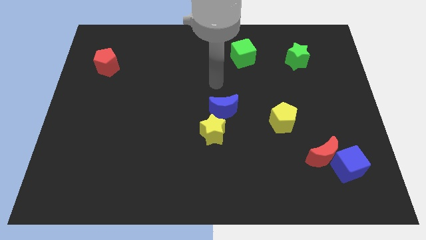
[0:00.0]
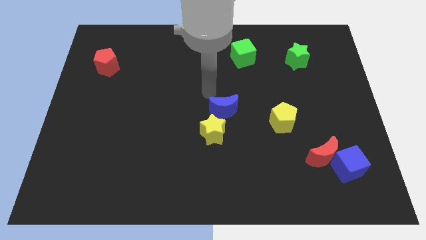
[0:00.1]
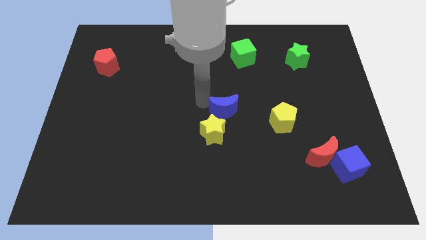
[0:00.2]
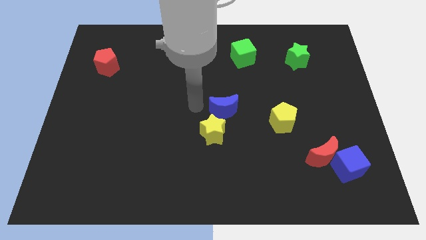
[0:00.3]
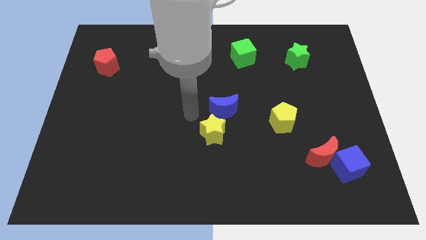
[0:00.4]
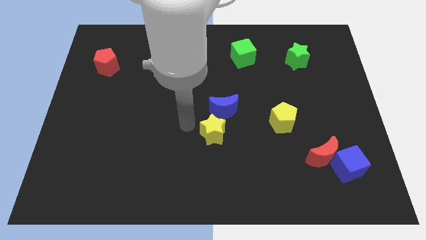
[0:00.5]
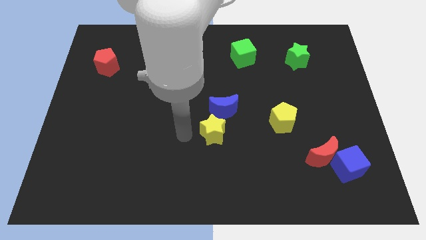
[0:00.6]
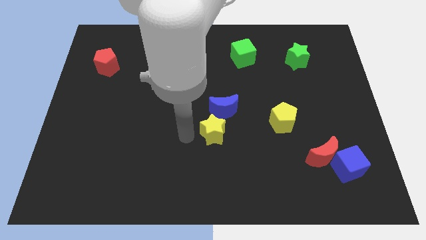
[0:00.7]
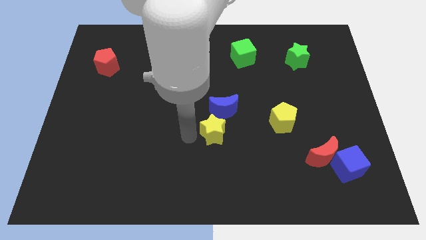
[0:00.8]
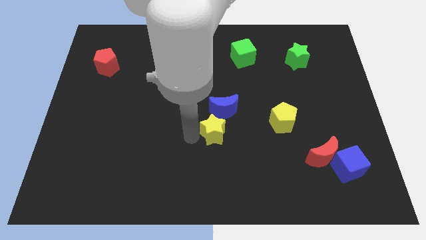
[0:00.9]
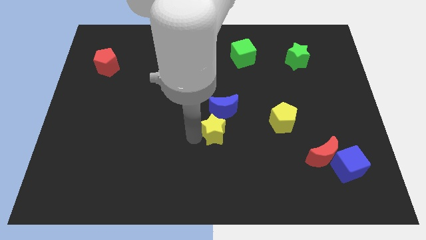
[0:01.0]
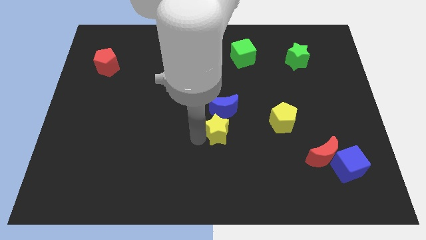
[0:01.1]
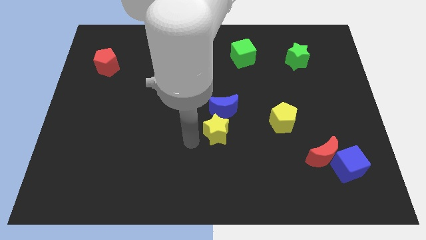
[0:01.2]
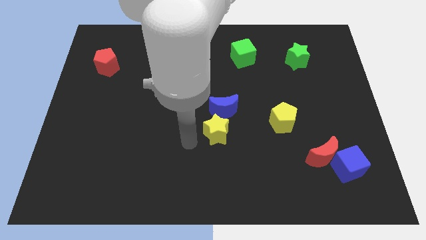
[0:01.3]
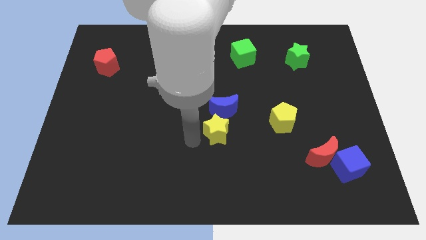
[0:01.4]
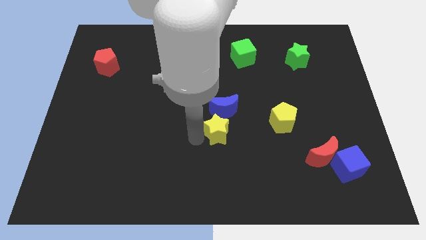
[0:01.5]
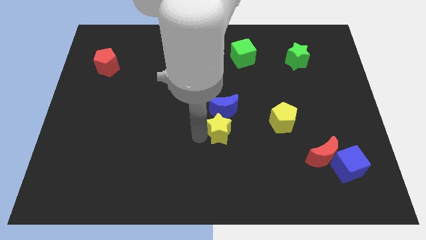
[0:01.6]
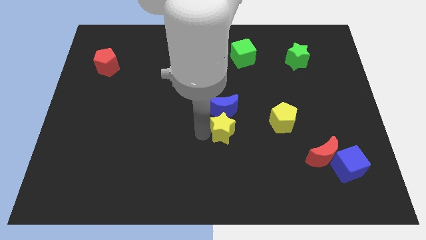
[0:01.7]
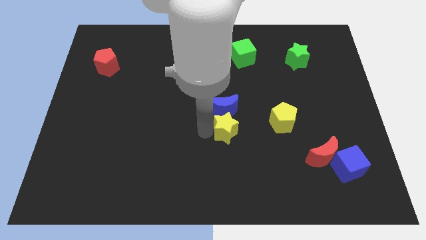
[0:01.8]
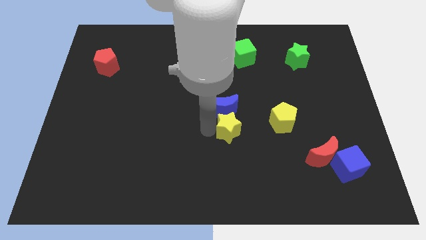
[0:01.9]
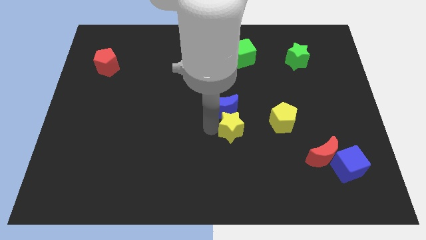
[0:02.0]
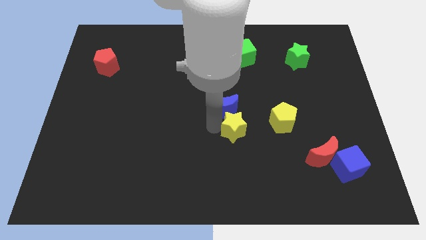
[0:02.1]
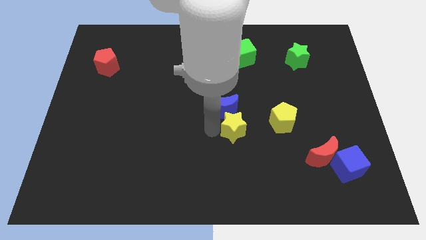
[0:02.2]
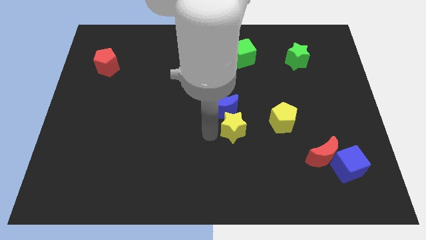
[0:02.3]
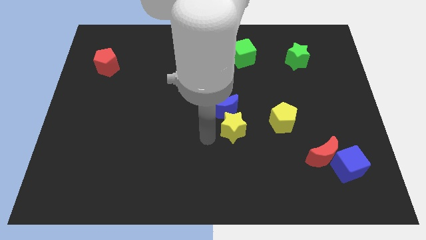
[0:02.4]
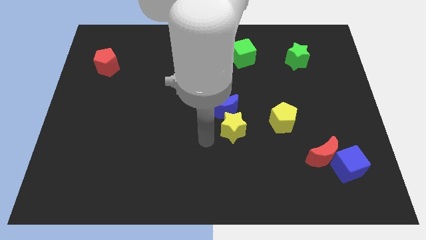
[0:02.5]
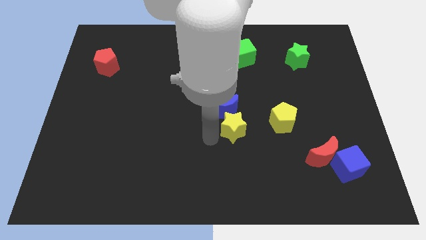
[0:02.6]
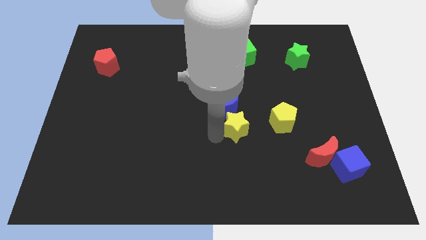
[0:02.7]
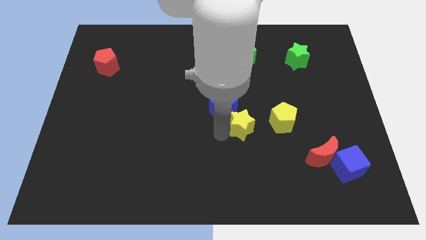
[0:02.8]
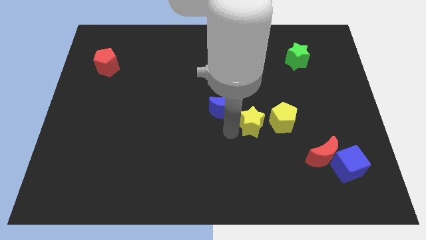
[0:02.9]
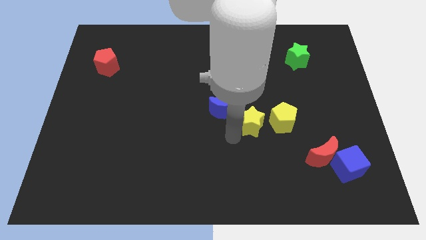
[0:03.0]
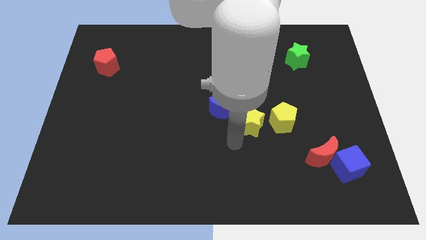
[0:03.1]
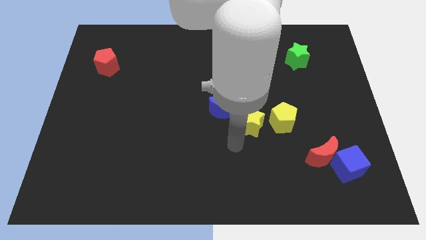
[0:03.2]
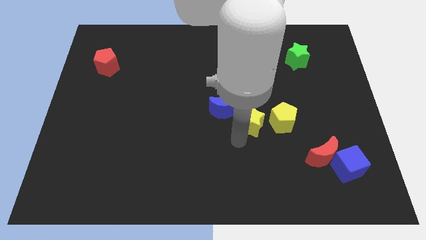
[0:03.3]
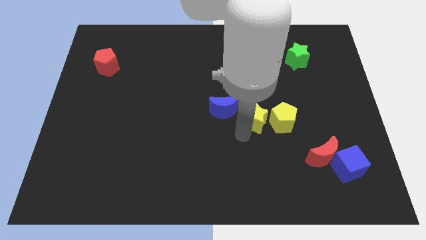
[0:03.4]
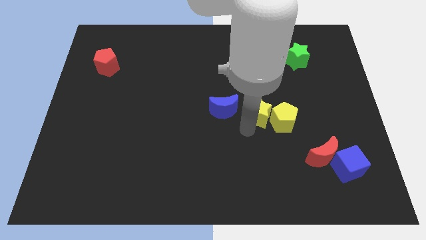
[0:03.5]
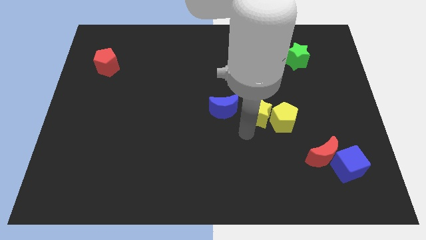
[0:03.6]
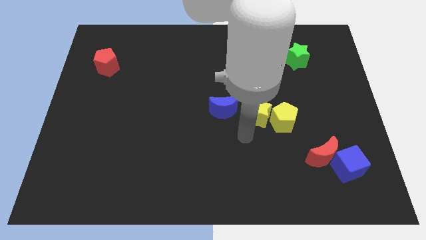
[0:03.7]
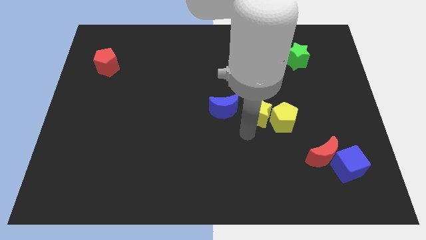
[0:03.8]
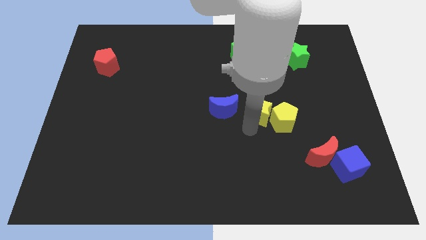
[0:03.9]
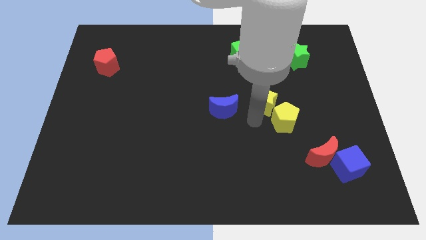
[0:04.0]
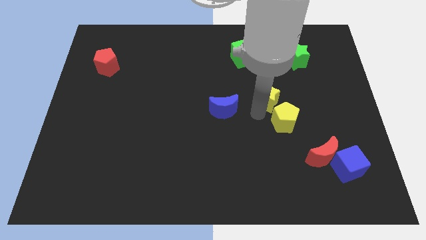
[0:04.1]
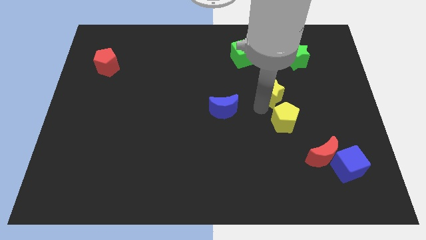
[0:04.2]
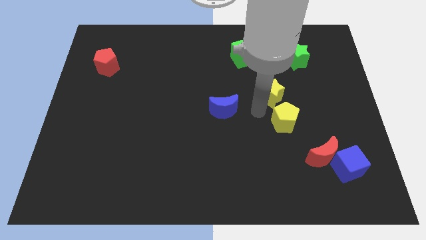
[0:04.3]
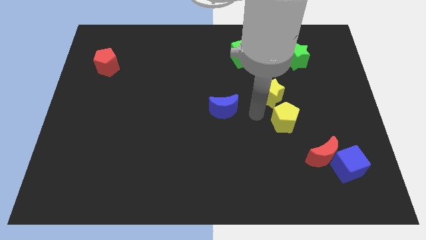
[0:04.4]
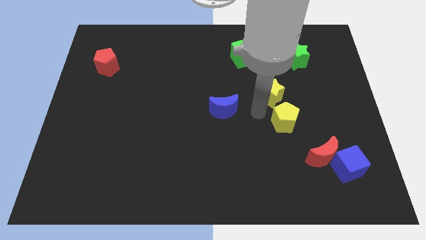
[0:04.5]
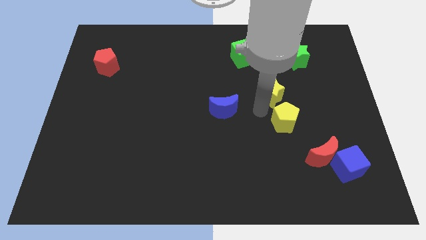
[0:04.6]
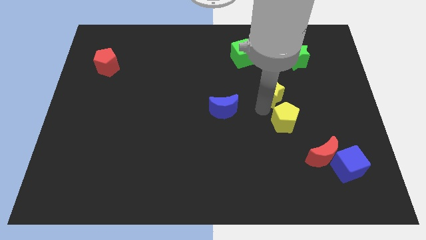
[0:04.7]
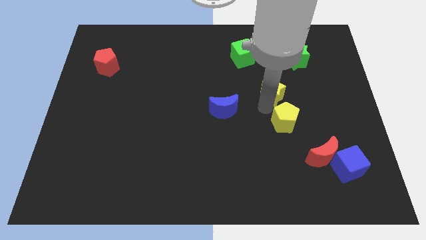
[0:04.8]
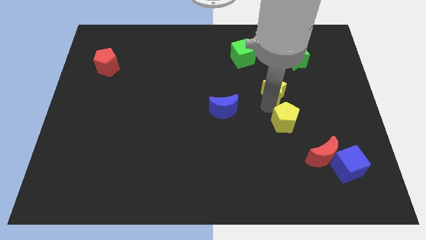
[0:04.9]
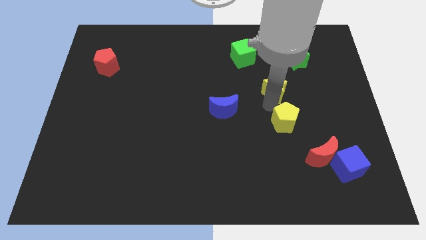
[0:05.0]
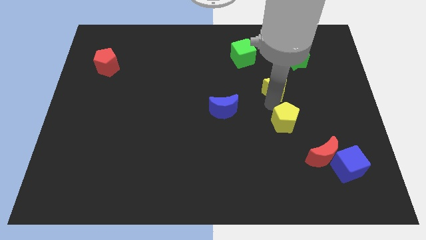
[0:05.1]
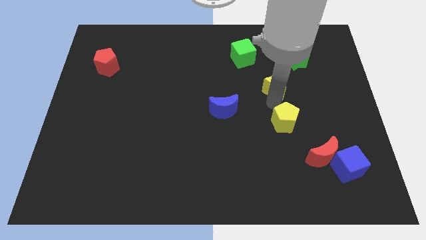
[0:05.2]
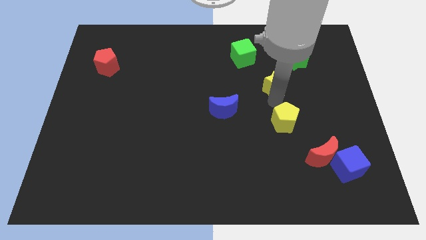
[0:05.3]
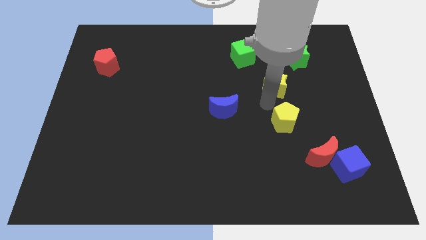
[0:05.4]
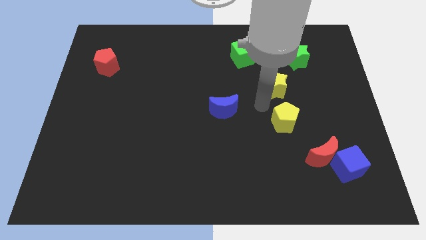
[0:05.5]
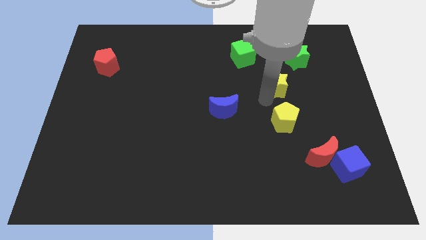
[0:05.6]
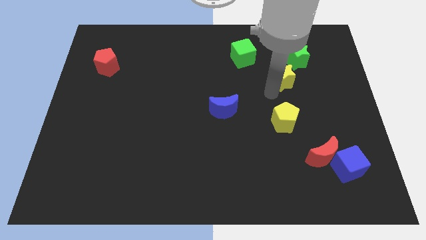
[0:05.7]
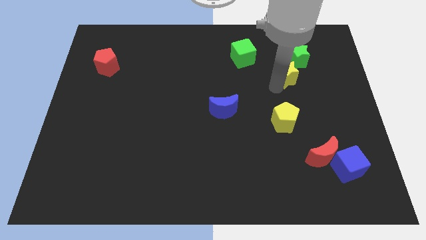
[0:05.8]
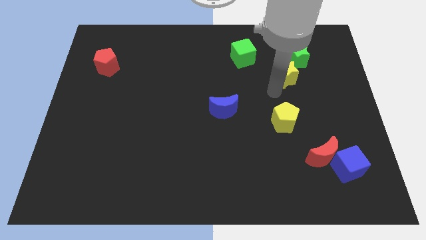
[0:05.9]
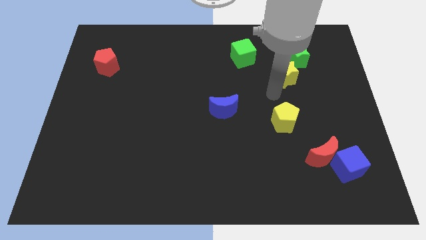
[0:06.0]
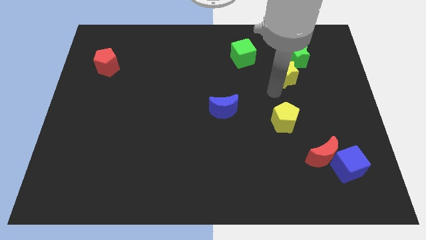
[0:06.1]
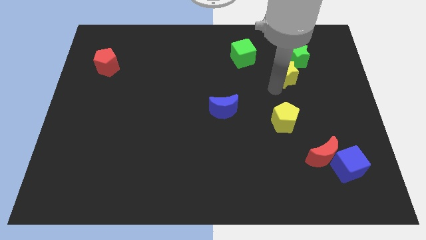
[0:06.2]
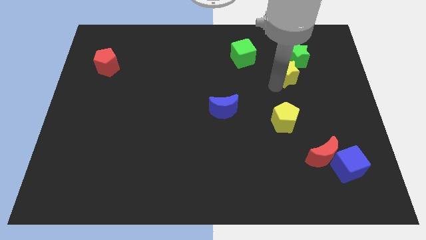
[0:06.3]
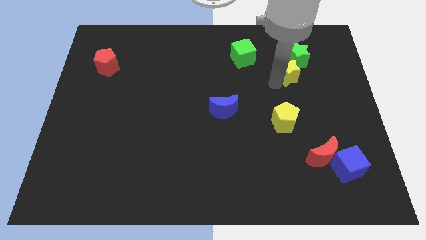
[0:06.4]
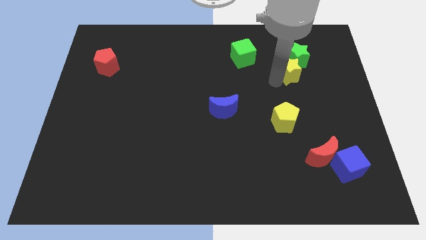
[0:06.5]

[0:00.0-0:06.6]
move the yellow star next to the green star

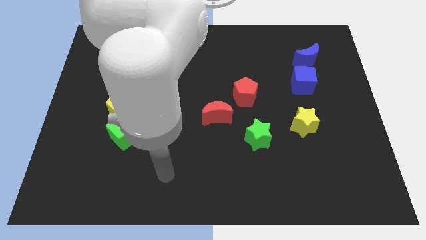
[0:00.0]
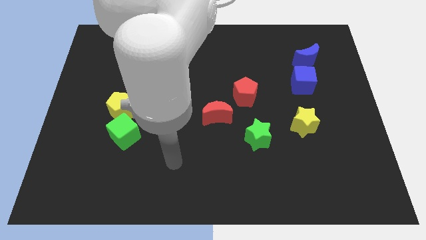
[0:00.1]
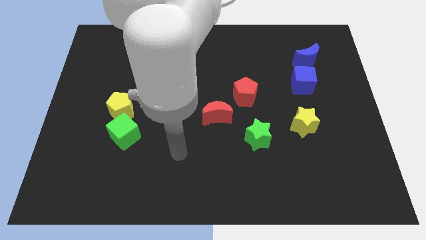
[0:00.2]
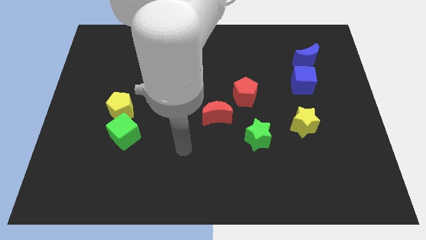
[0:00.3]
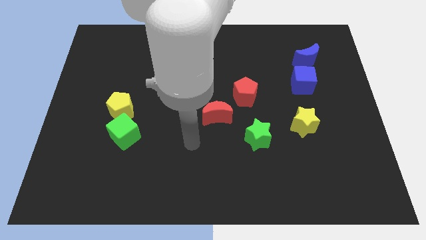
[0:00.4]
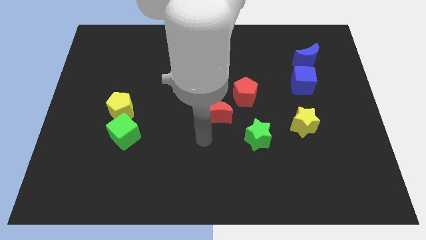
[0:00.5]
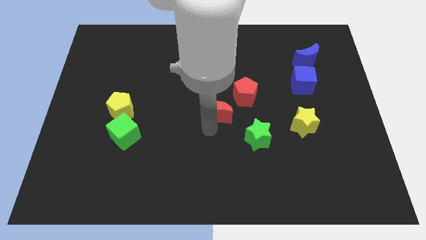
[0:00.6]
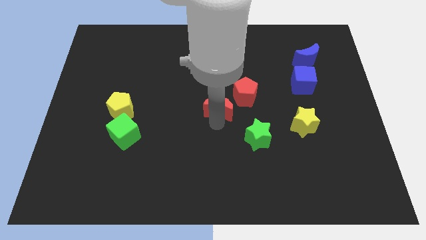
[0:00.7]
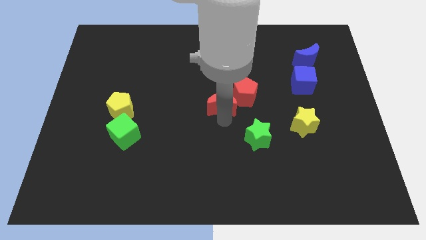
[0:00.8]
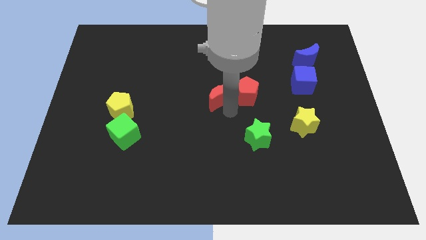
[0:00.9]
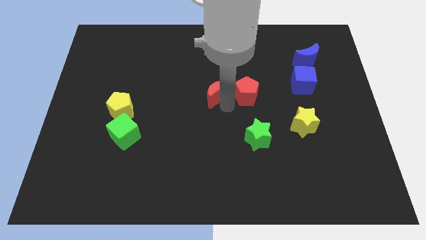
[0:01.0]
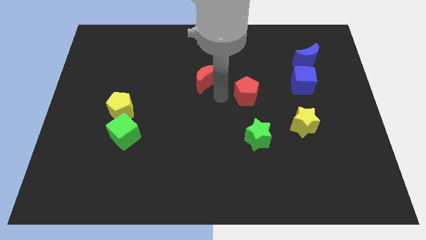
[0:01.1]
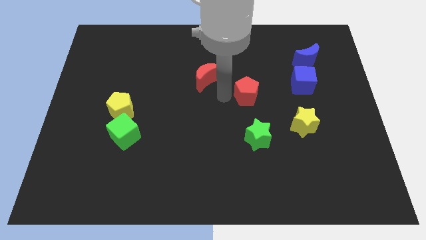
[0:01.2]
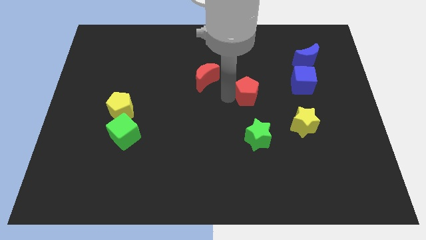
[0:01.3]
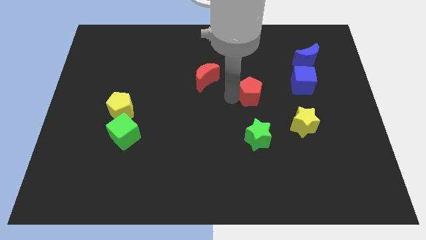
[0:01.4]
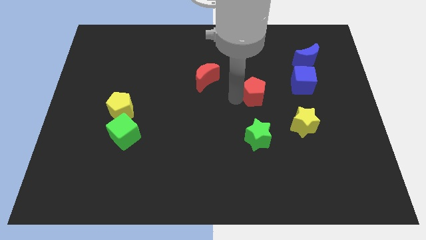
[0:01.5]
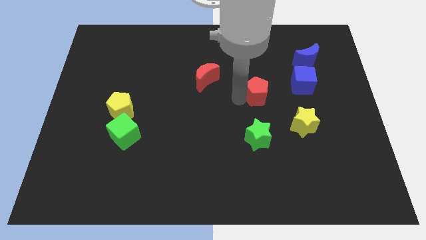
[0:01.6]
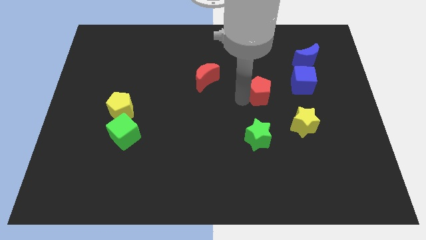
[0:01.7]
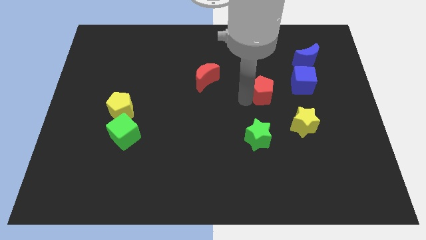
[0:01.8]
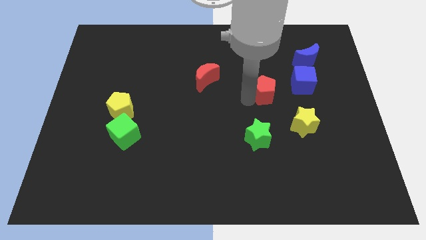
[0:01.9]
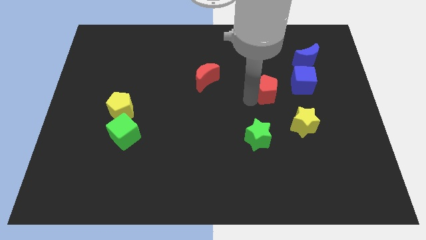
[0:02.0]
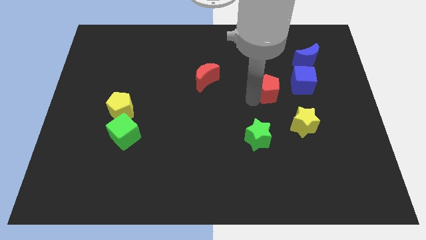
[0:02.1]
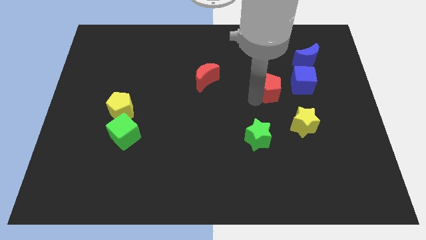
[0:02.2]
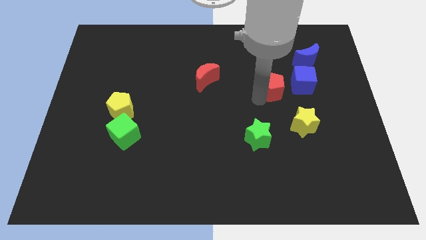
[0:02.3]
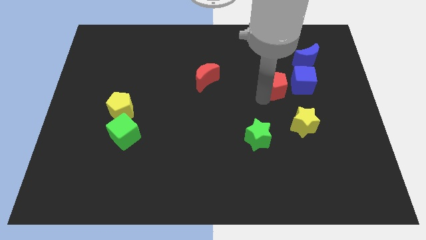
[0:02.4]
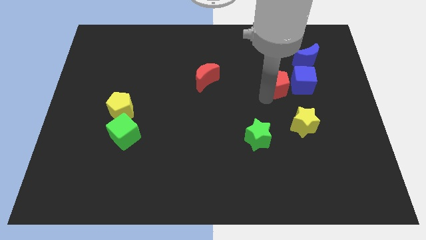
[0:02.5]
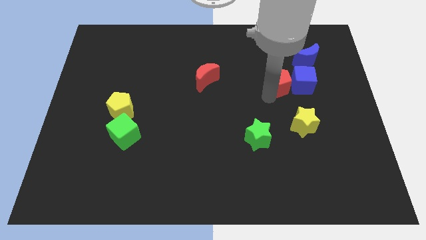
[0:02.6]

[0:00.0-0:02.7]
move the red pentagon close to the blue cube
